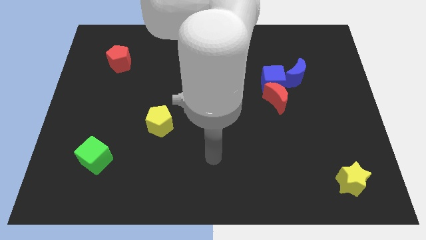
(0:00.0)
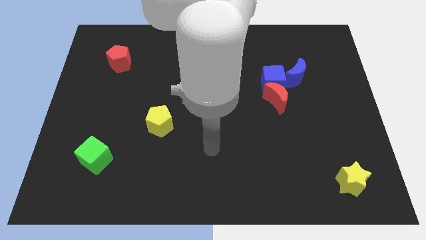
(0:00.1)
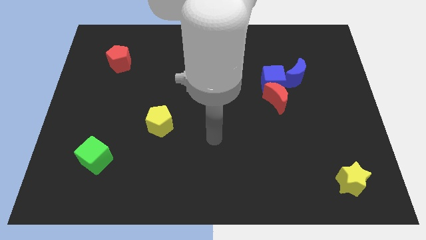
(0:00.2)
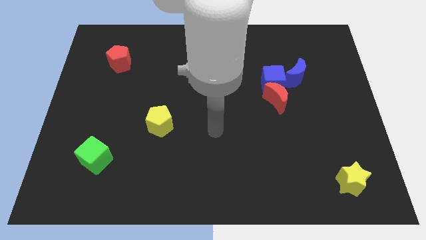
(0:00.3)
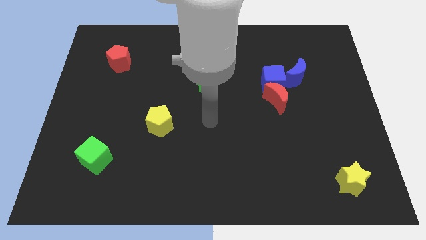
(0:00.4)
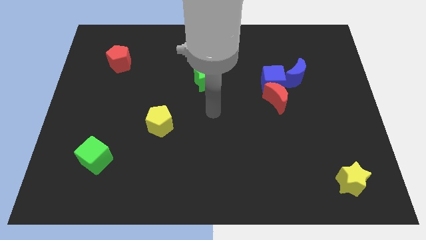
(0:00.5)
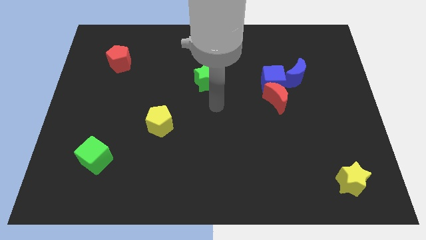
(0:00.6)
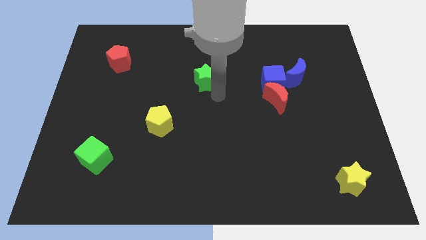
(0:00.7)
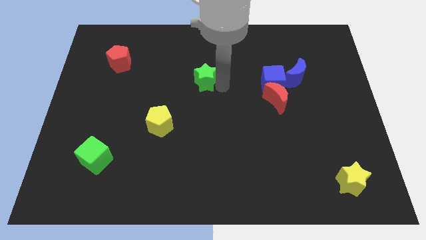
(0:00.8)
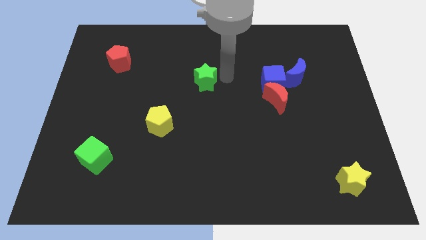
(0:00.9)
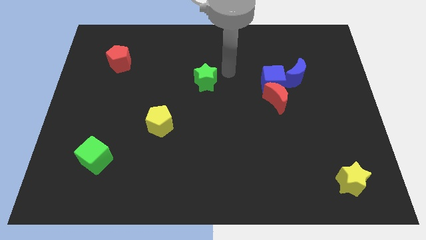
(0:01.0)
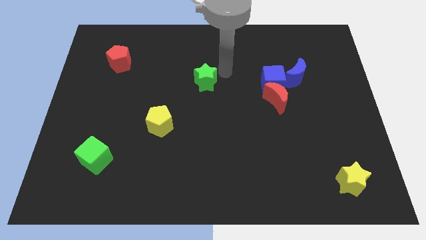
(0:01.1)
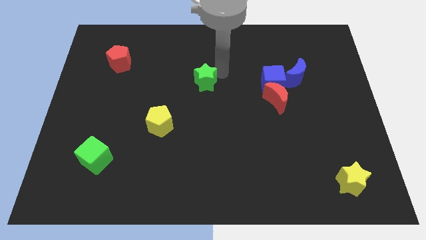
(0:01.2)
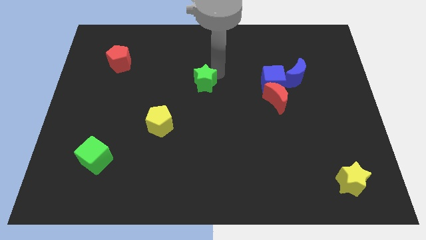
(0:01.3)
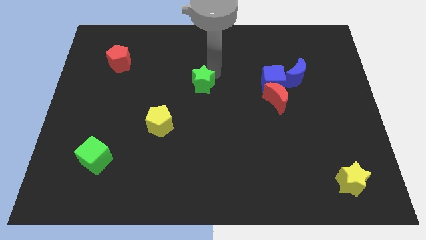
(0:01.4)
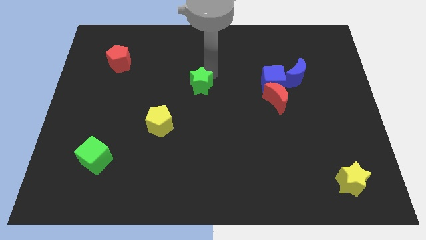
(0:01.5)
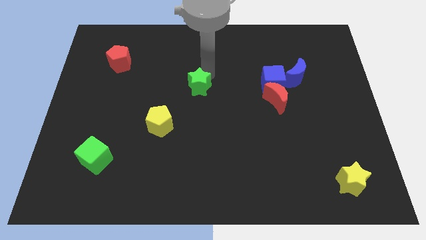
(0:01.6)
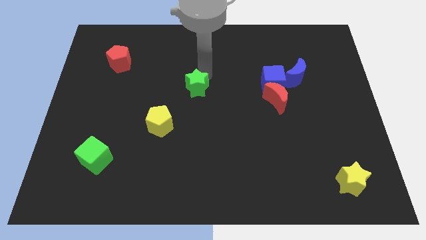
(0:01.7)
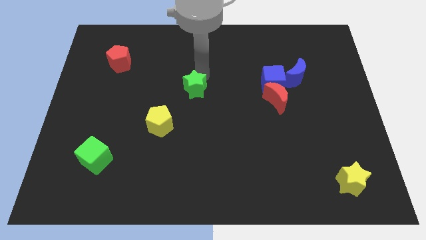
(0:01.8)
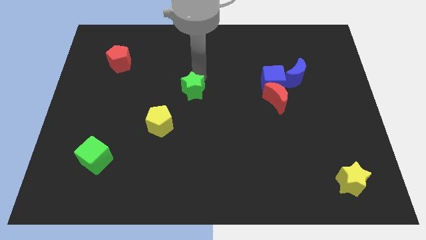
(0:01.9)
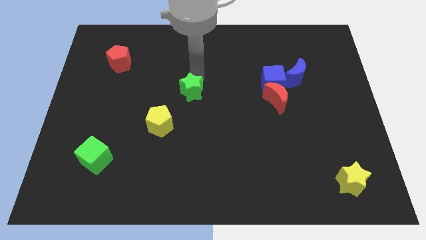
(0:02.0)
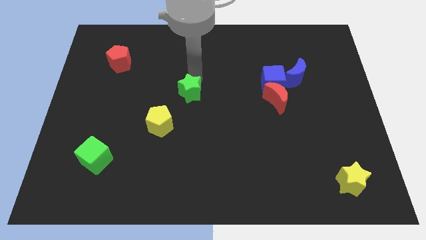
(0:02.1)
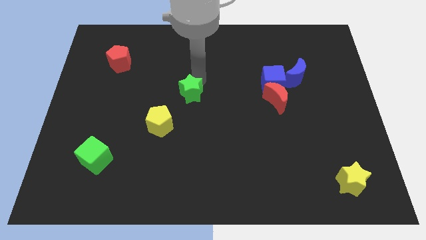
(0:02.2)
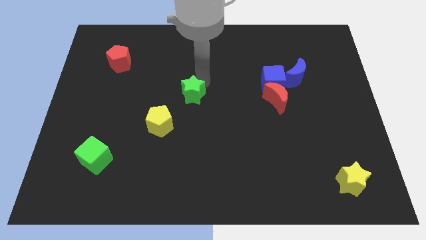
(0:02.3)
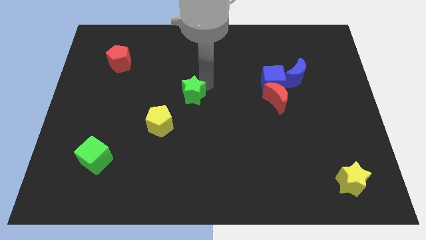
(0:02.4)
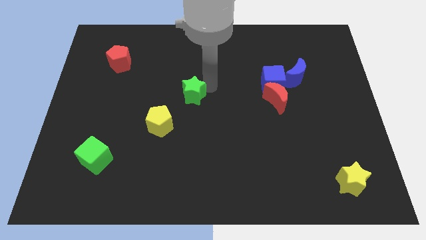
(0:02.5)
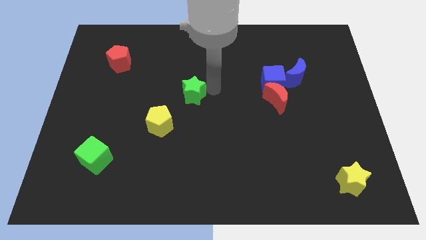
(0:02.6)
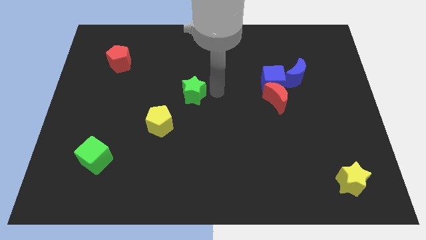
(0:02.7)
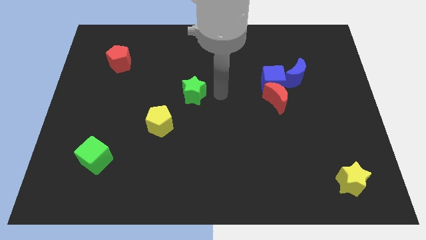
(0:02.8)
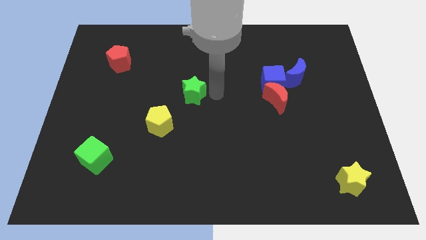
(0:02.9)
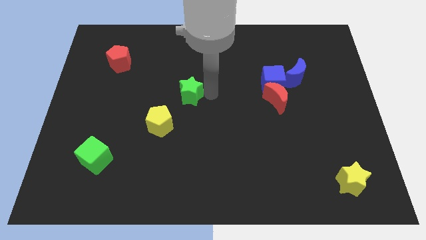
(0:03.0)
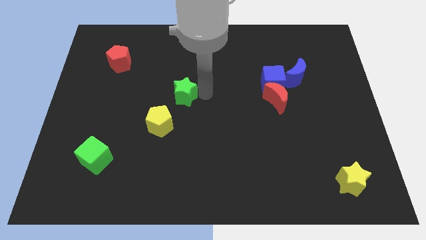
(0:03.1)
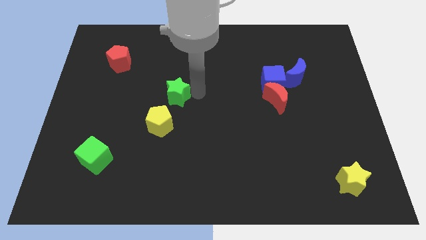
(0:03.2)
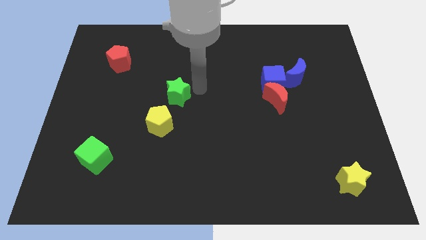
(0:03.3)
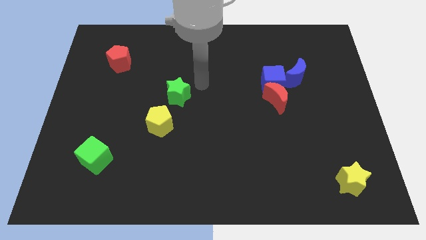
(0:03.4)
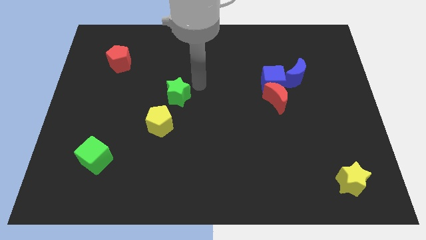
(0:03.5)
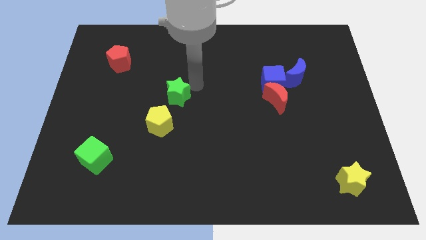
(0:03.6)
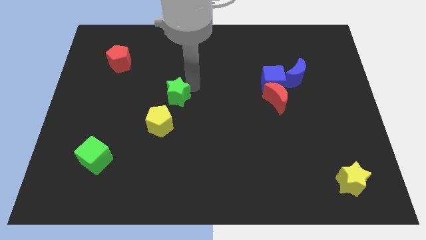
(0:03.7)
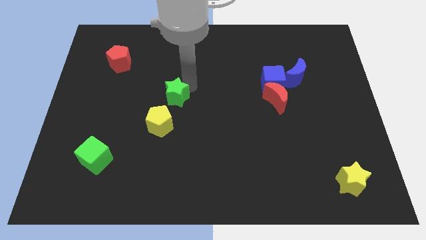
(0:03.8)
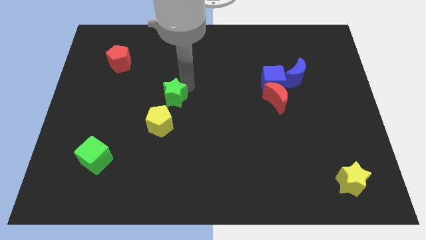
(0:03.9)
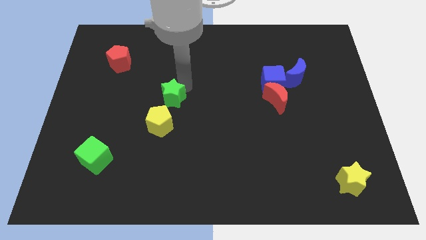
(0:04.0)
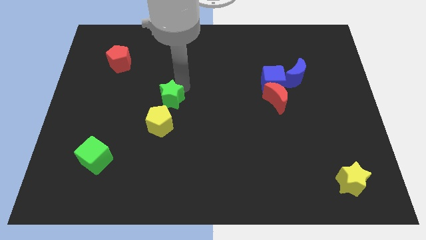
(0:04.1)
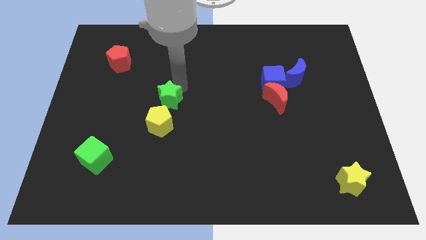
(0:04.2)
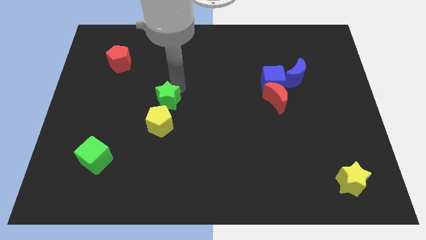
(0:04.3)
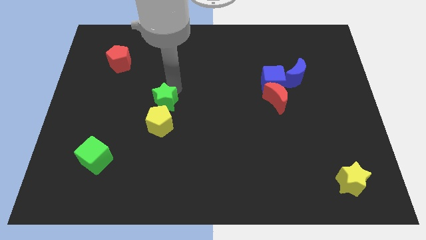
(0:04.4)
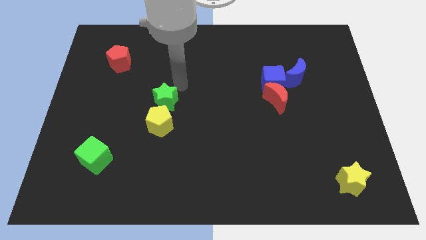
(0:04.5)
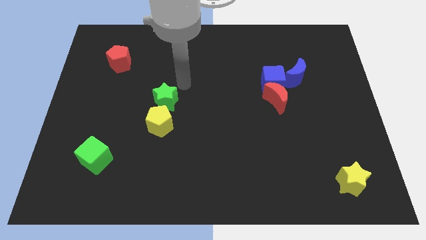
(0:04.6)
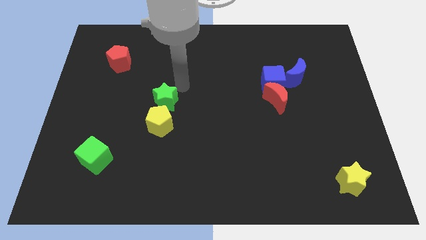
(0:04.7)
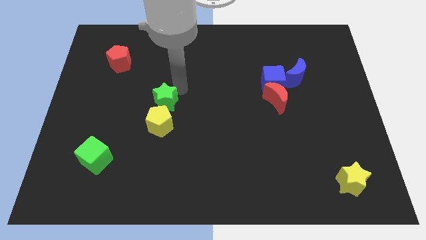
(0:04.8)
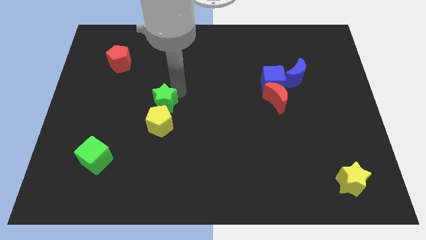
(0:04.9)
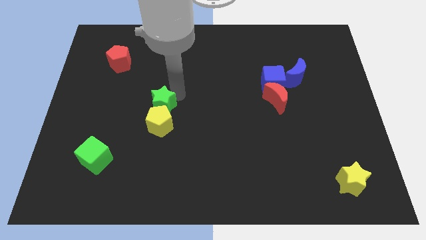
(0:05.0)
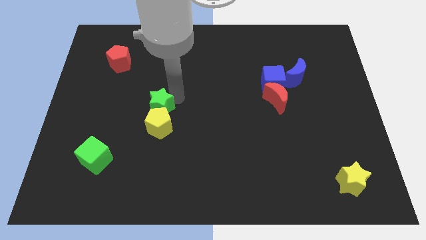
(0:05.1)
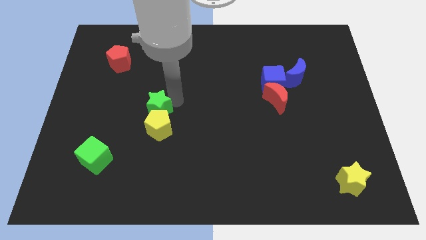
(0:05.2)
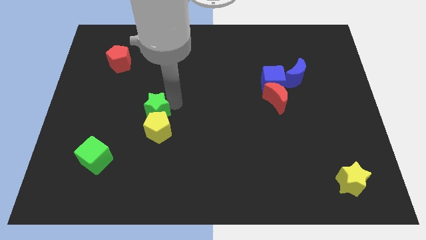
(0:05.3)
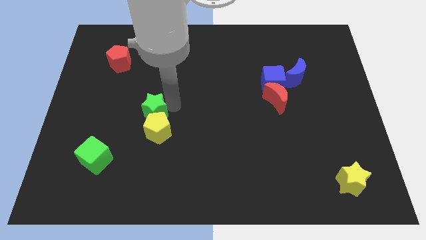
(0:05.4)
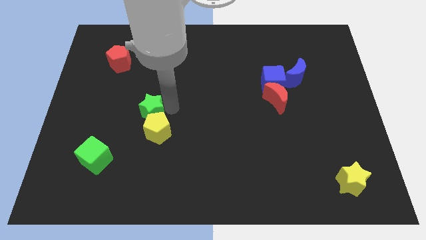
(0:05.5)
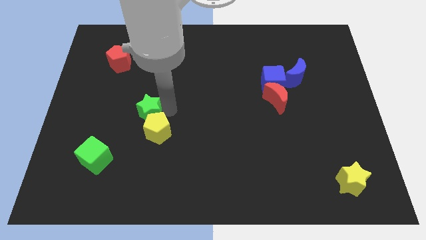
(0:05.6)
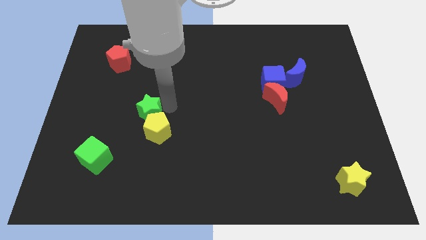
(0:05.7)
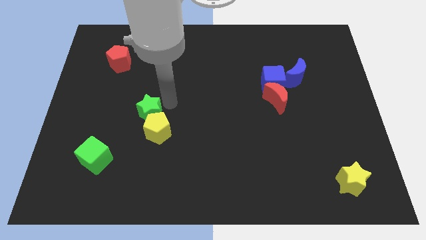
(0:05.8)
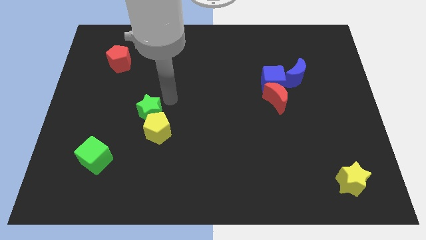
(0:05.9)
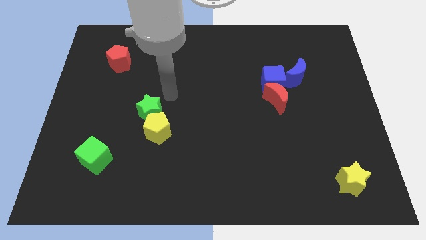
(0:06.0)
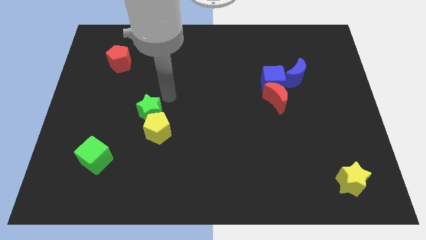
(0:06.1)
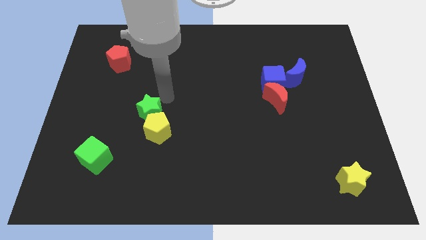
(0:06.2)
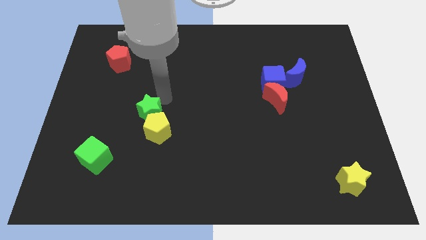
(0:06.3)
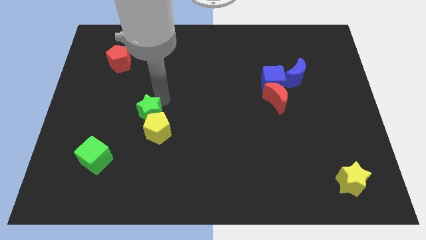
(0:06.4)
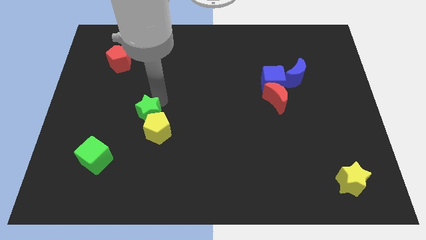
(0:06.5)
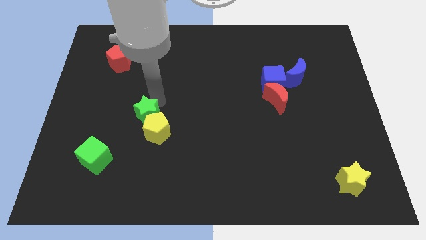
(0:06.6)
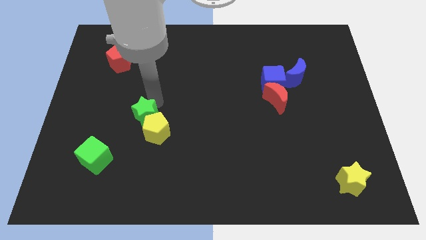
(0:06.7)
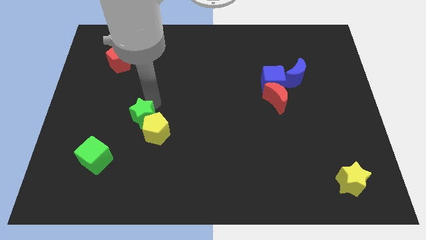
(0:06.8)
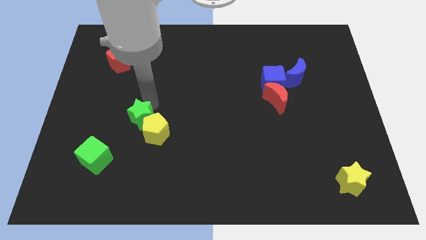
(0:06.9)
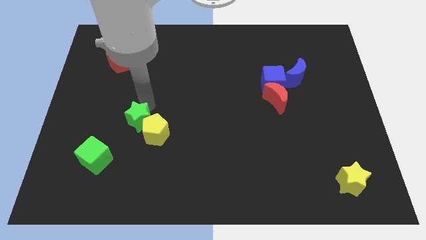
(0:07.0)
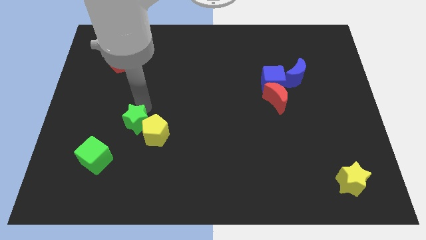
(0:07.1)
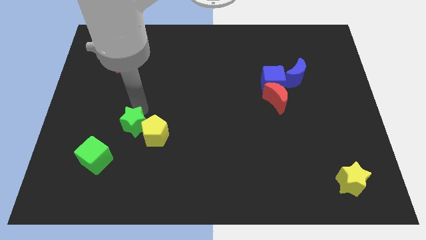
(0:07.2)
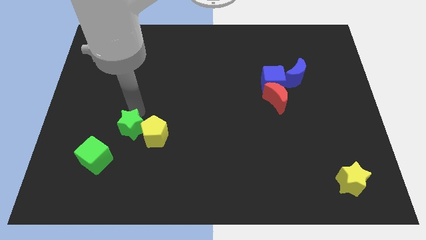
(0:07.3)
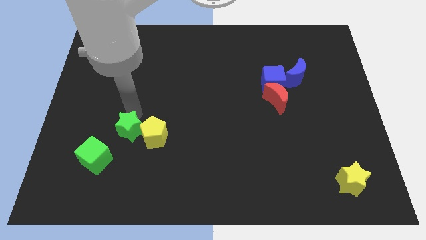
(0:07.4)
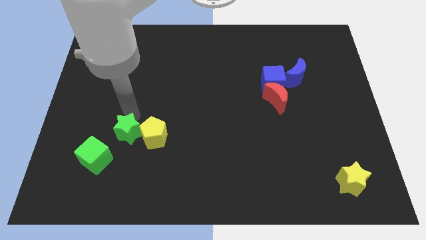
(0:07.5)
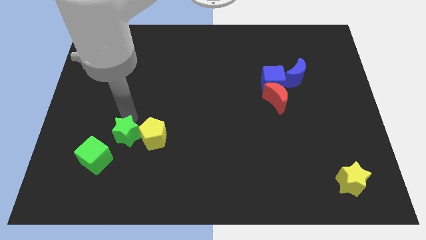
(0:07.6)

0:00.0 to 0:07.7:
put the green star diagonally down and to the left of the yellow pentagon

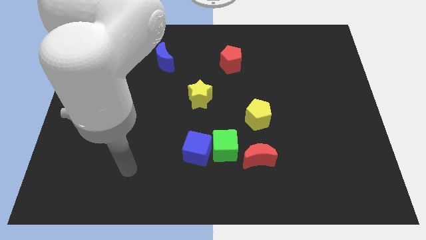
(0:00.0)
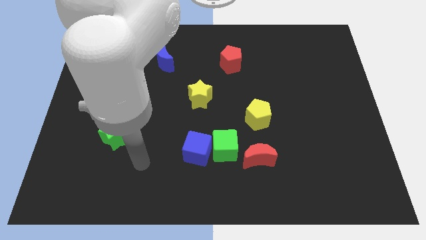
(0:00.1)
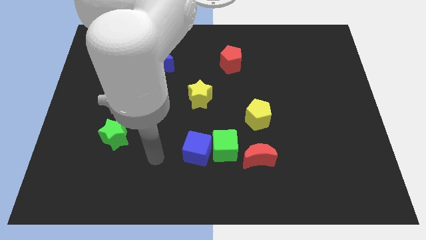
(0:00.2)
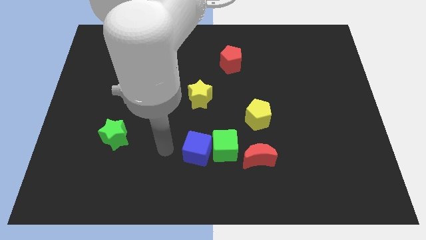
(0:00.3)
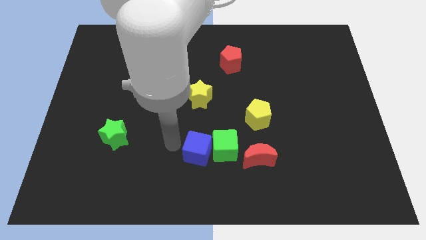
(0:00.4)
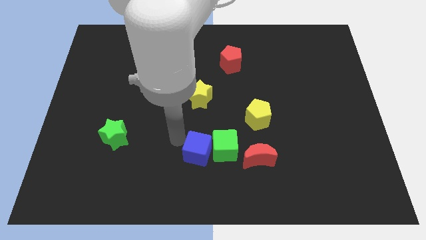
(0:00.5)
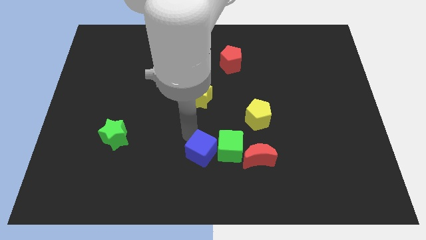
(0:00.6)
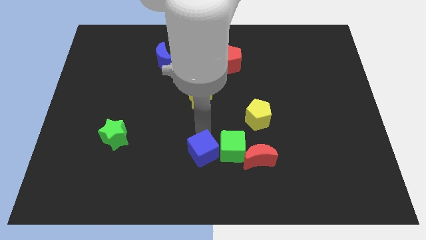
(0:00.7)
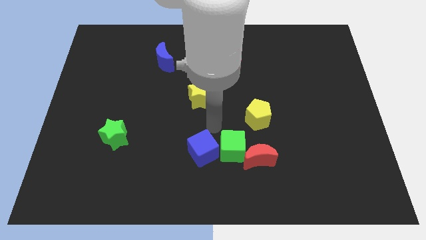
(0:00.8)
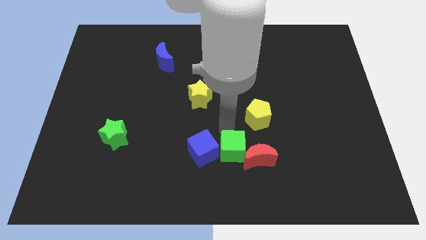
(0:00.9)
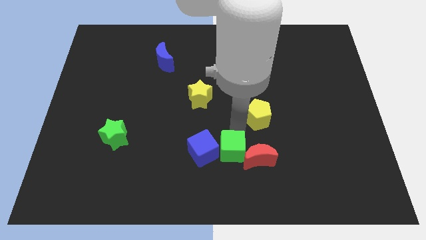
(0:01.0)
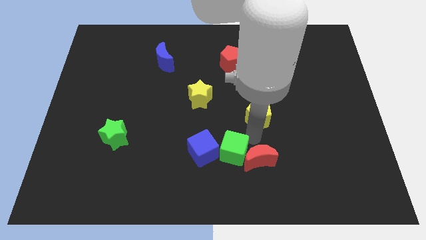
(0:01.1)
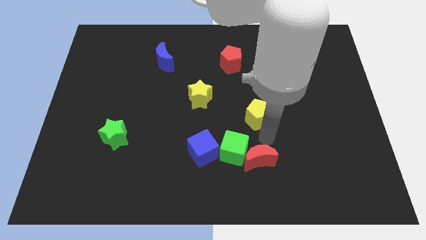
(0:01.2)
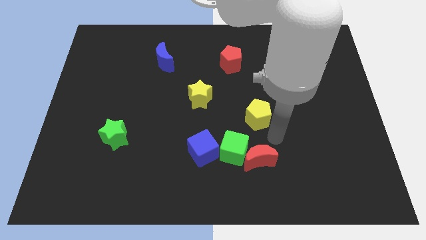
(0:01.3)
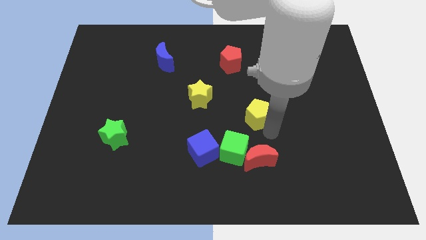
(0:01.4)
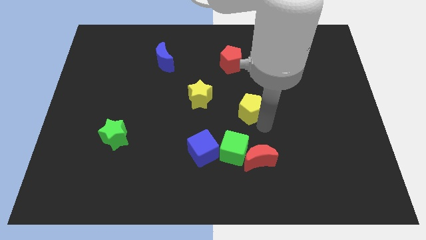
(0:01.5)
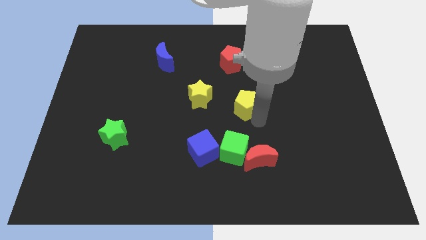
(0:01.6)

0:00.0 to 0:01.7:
move the yellow pentagon below the red pentagon
